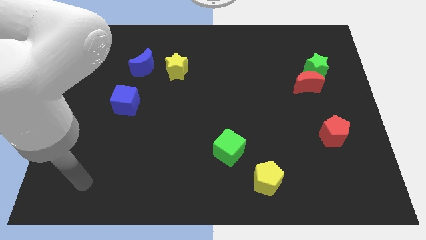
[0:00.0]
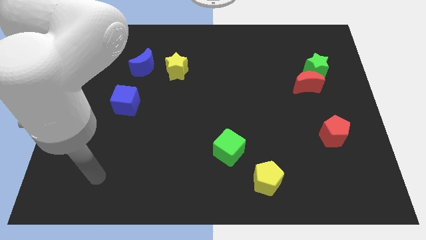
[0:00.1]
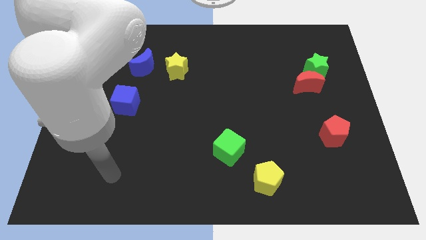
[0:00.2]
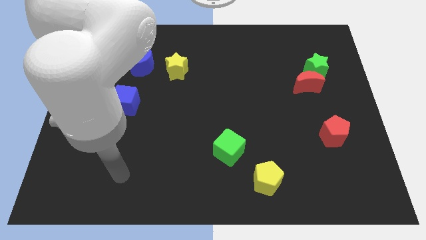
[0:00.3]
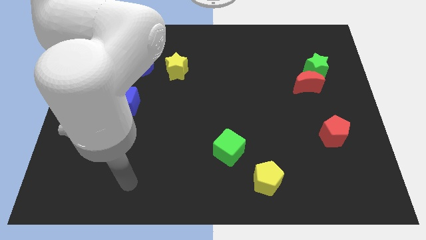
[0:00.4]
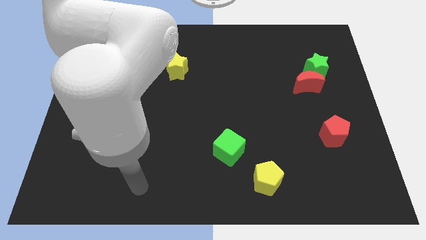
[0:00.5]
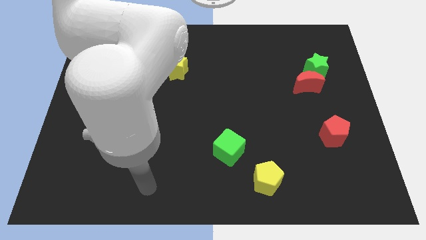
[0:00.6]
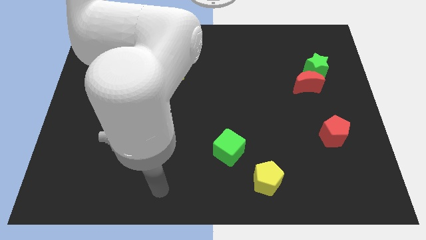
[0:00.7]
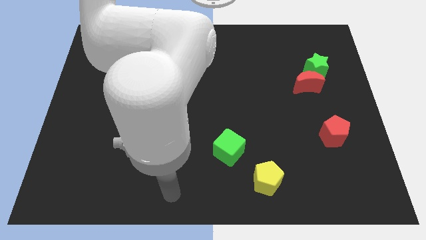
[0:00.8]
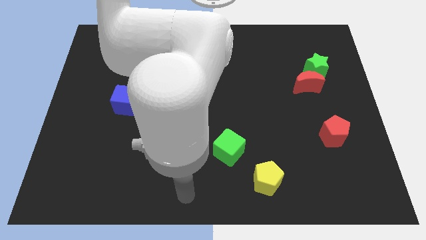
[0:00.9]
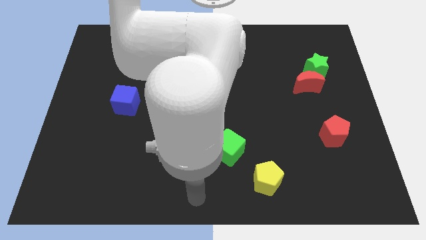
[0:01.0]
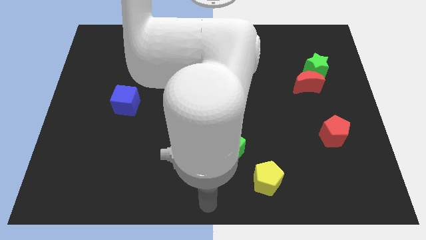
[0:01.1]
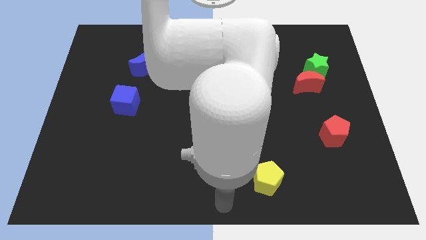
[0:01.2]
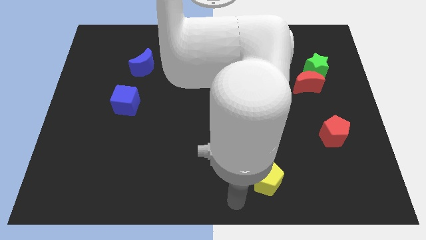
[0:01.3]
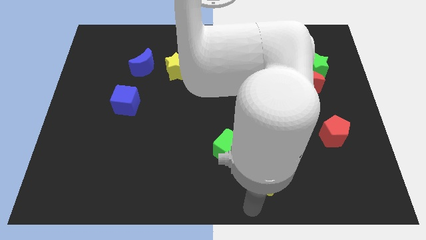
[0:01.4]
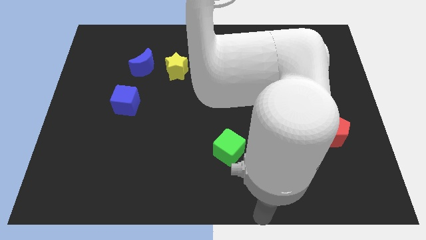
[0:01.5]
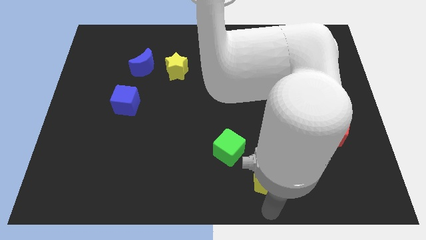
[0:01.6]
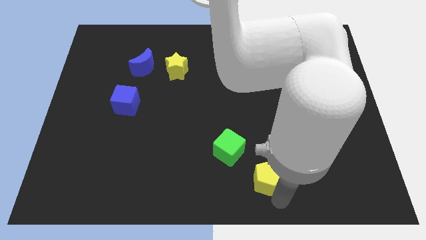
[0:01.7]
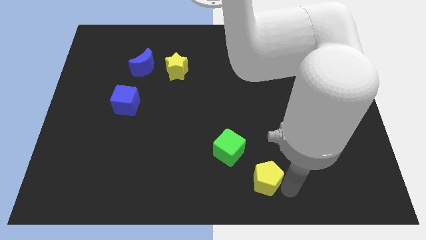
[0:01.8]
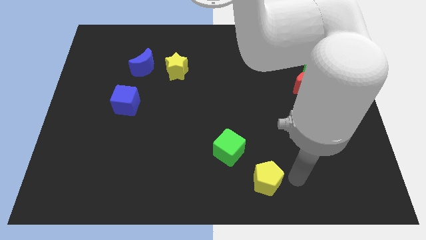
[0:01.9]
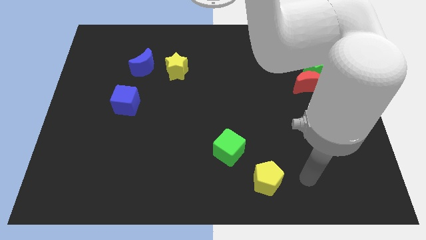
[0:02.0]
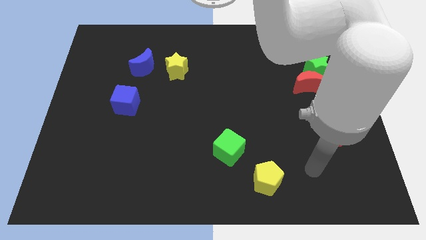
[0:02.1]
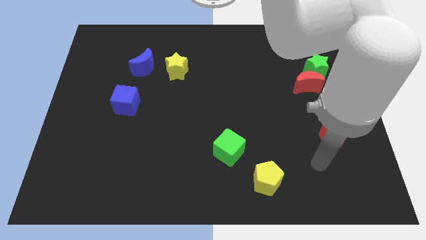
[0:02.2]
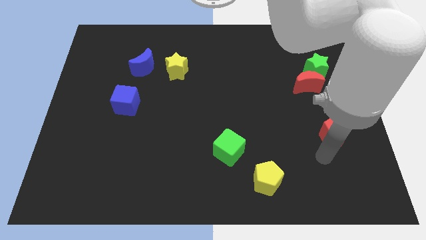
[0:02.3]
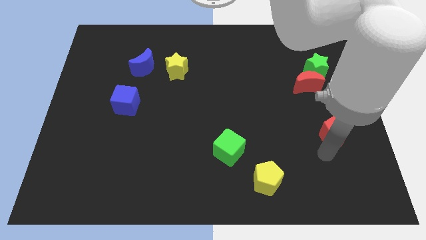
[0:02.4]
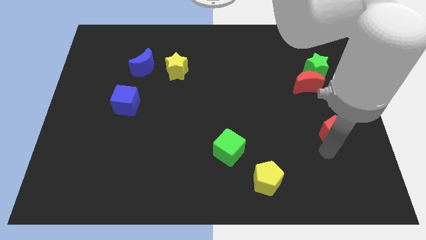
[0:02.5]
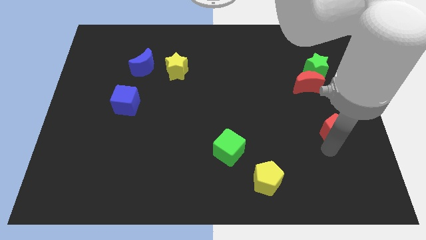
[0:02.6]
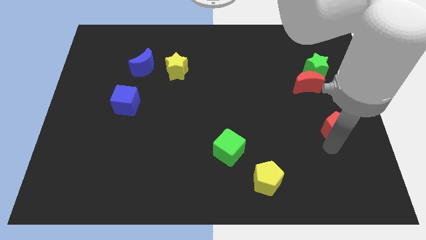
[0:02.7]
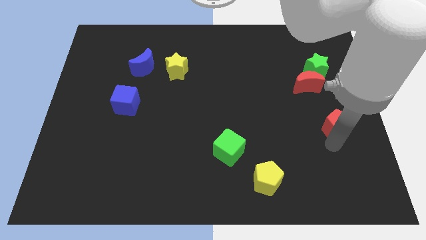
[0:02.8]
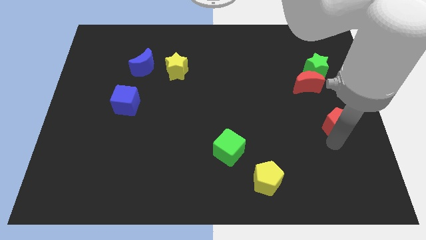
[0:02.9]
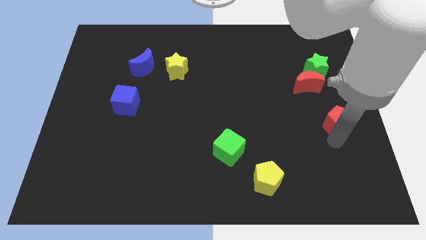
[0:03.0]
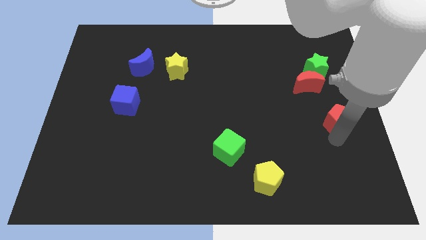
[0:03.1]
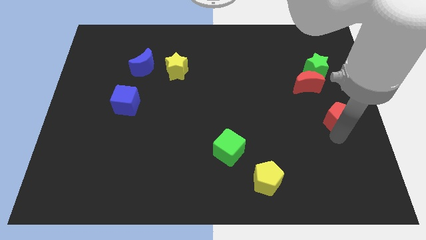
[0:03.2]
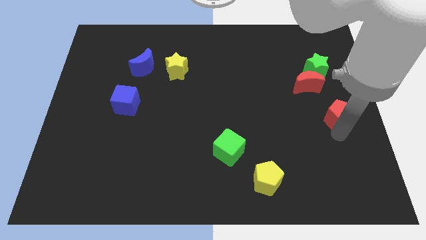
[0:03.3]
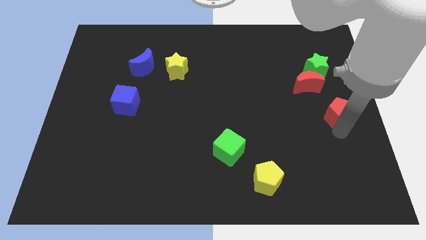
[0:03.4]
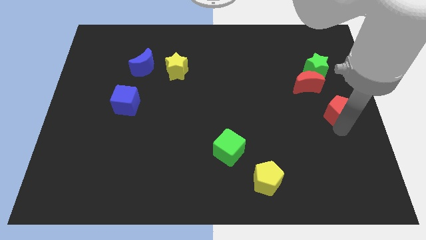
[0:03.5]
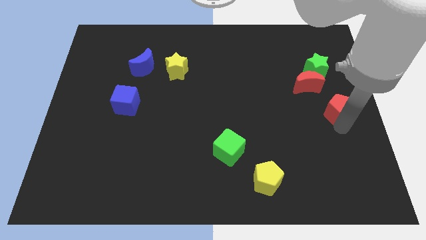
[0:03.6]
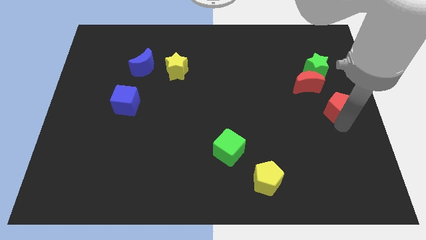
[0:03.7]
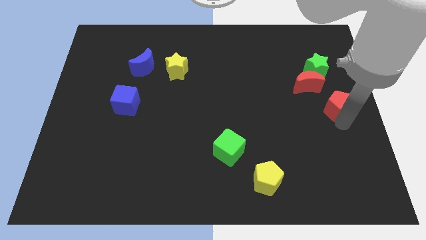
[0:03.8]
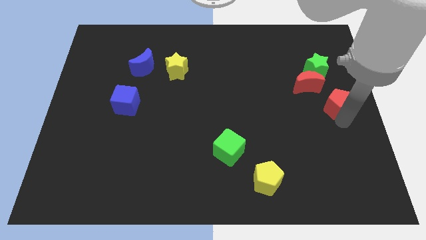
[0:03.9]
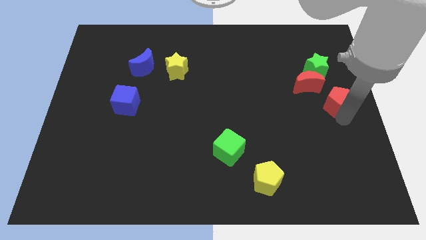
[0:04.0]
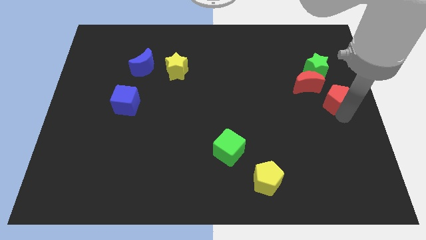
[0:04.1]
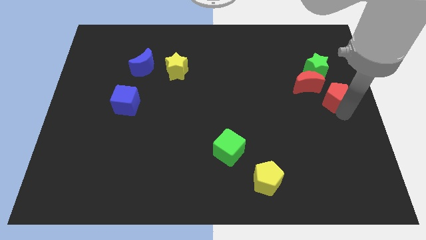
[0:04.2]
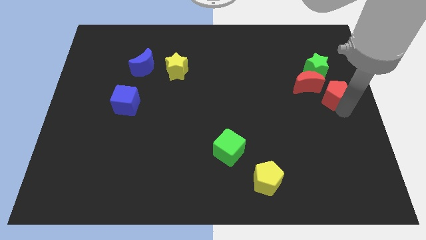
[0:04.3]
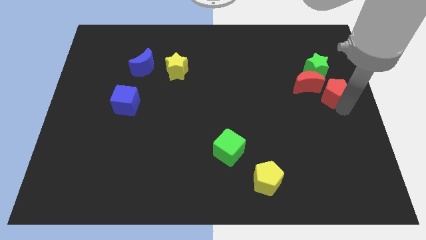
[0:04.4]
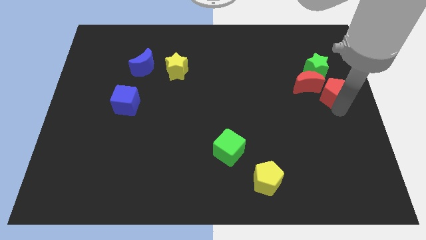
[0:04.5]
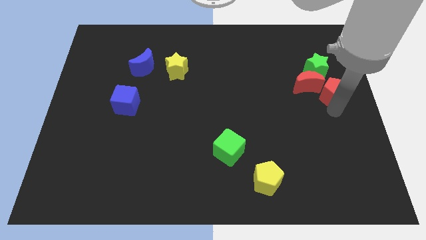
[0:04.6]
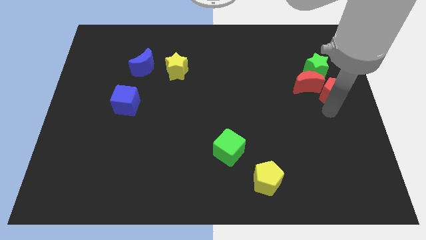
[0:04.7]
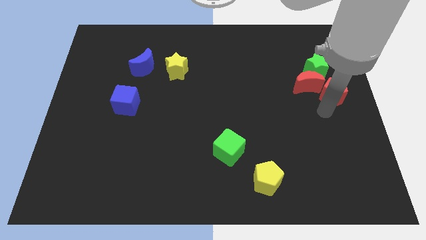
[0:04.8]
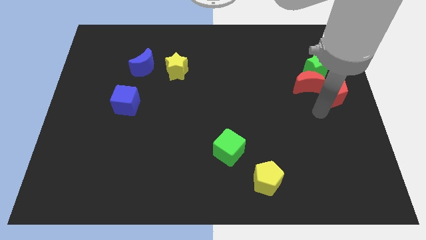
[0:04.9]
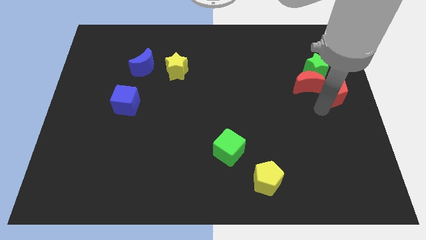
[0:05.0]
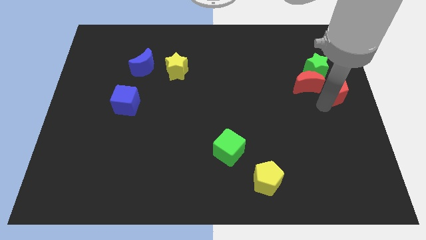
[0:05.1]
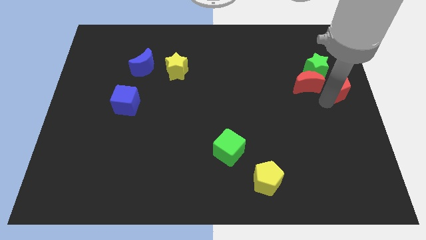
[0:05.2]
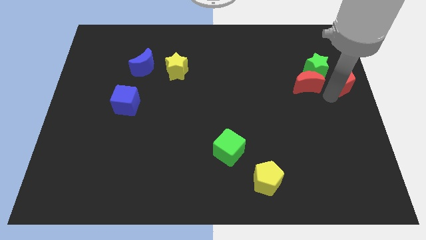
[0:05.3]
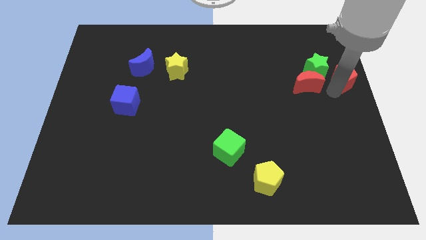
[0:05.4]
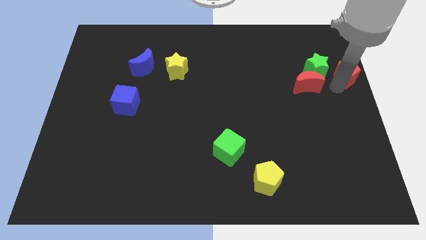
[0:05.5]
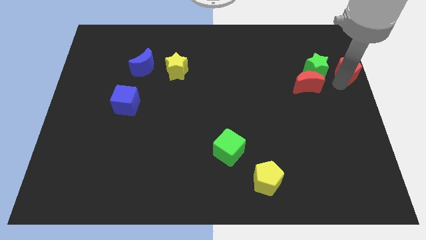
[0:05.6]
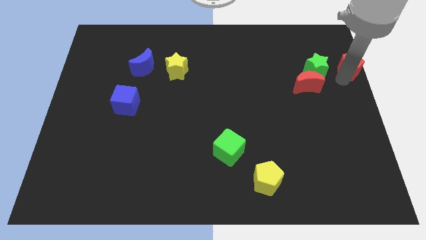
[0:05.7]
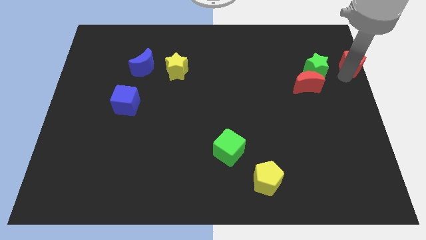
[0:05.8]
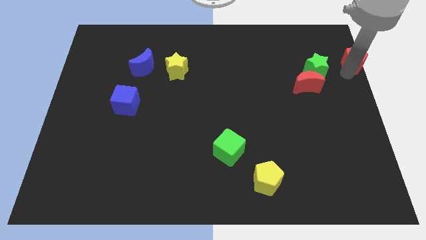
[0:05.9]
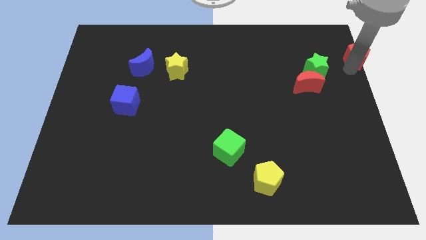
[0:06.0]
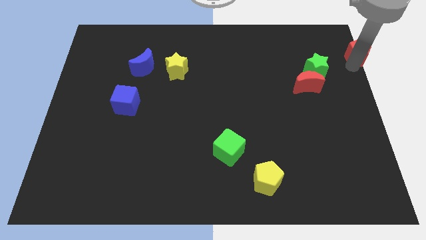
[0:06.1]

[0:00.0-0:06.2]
slide the red pentagon to the upper right corner
